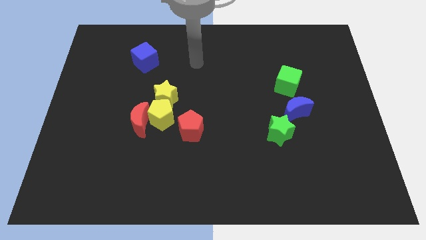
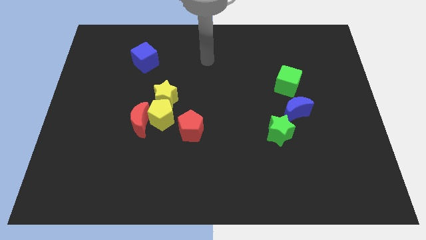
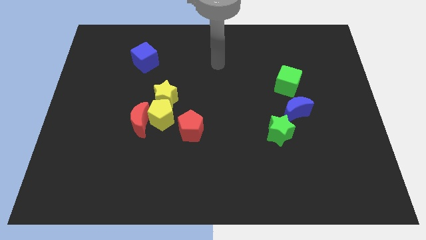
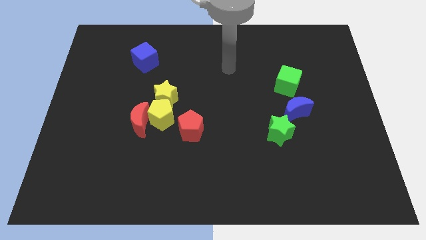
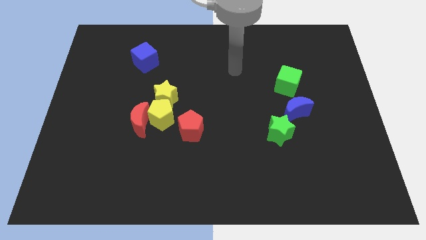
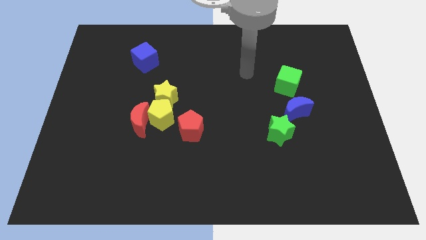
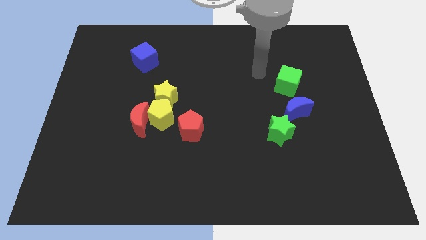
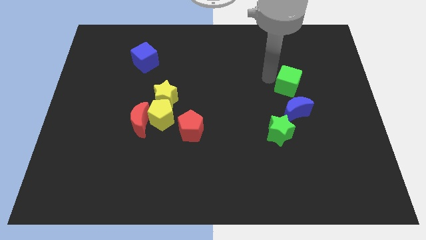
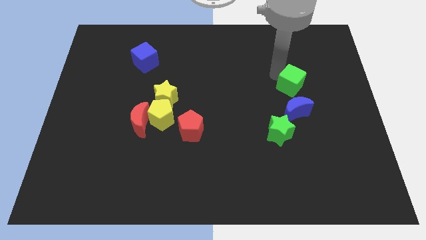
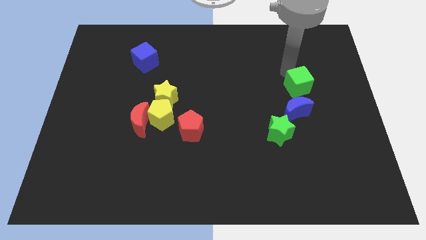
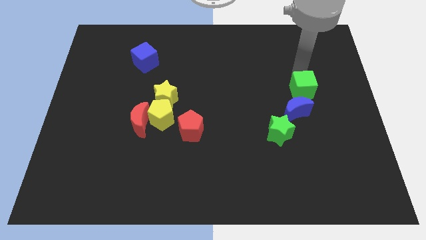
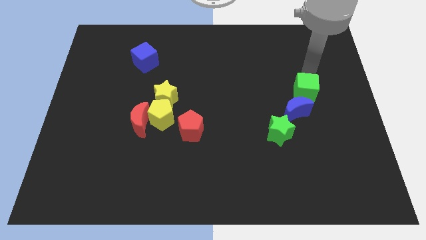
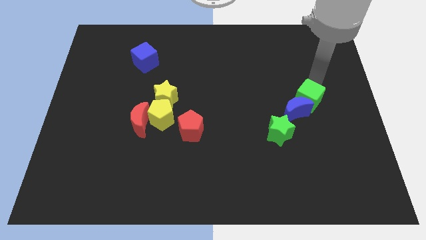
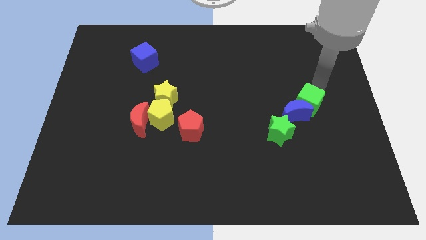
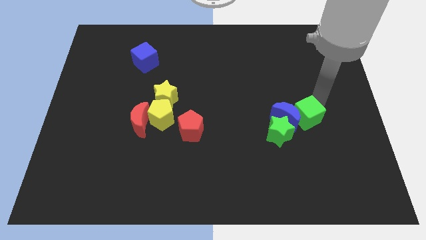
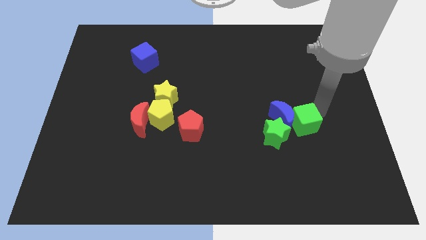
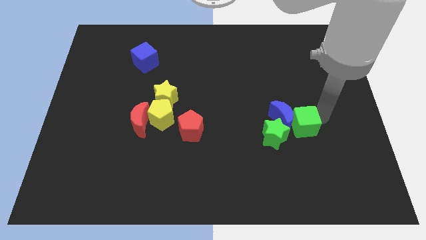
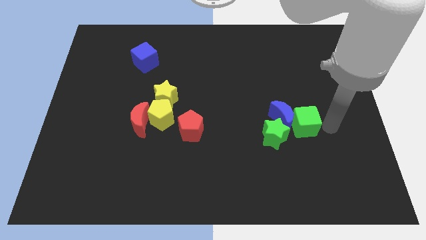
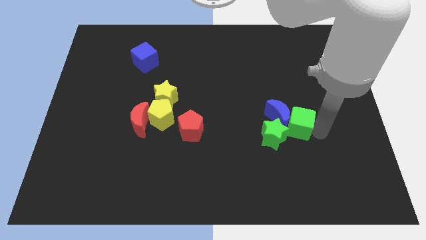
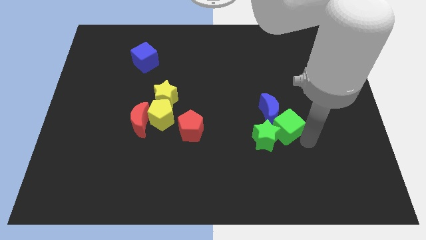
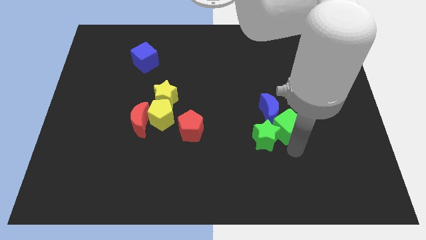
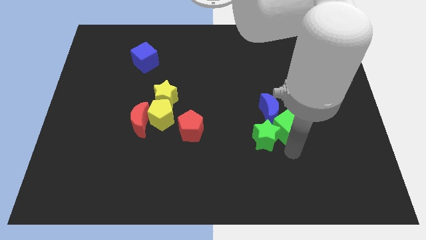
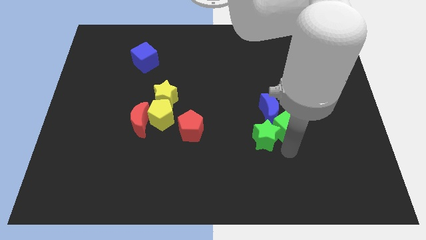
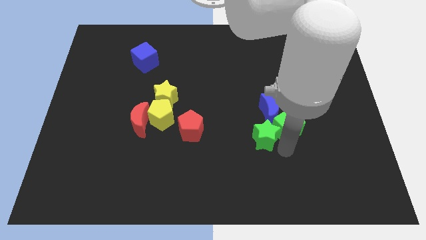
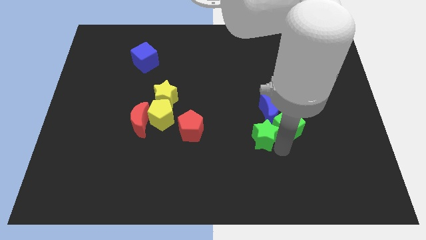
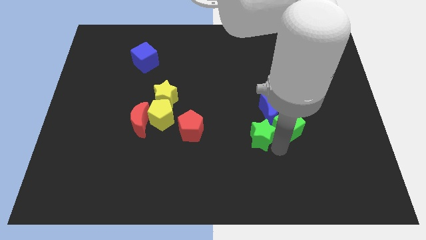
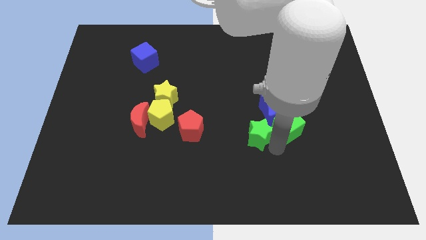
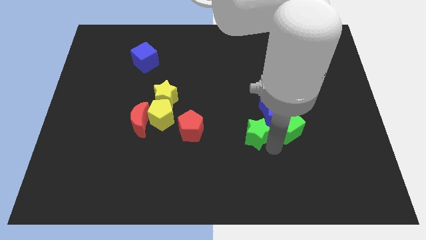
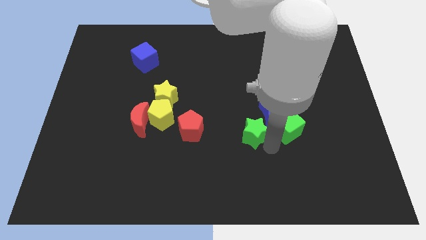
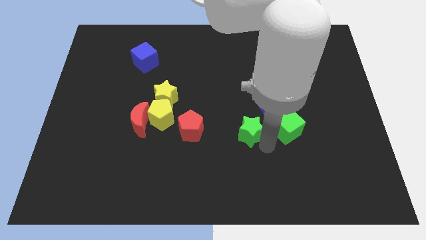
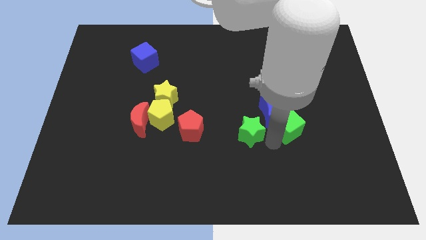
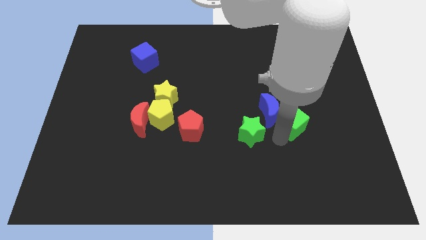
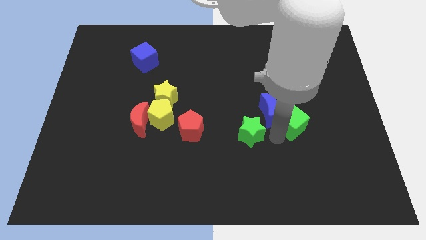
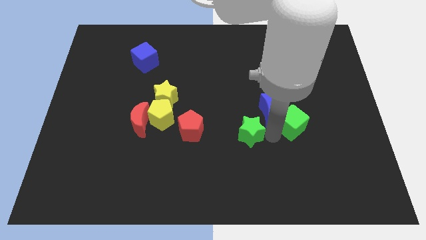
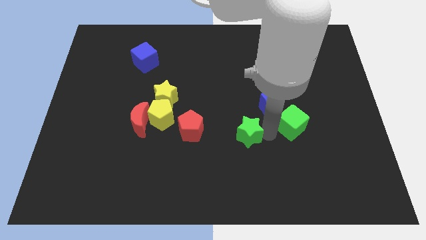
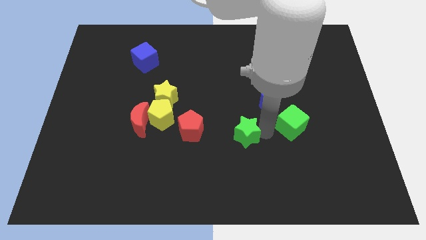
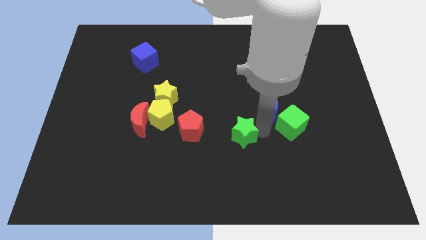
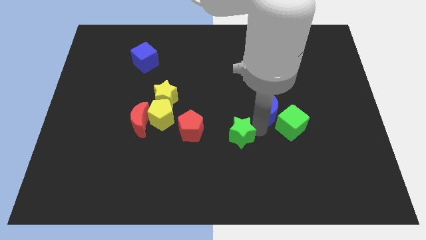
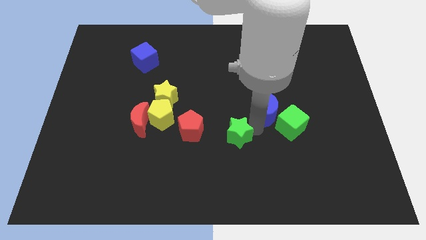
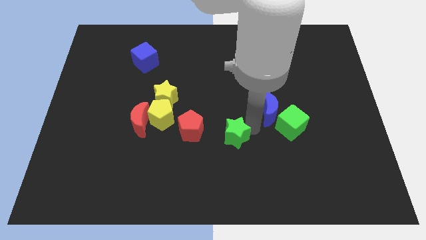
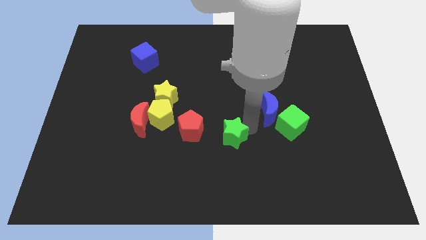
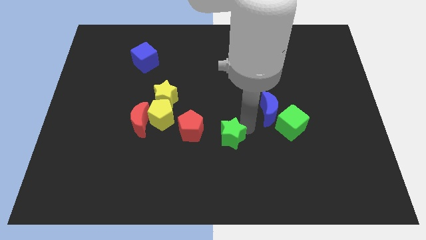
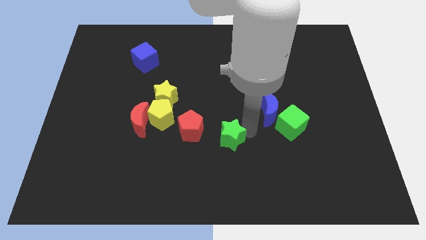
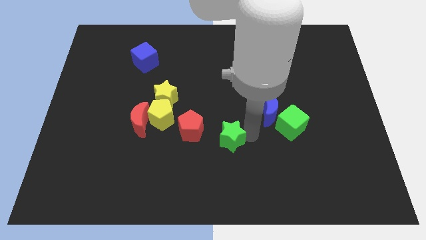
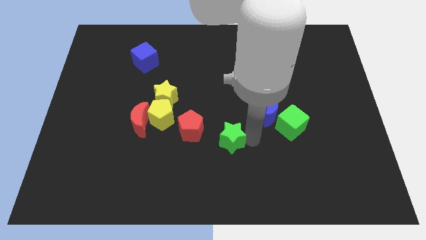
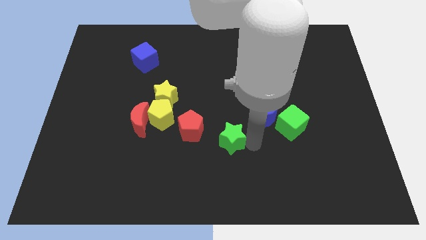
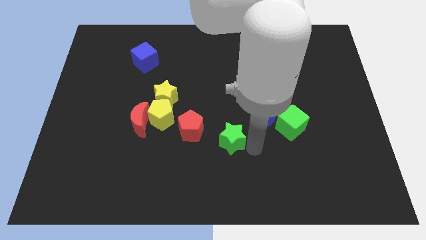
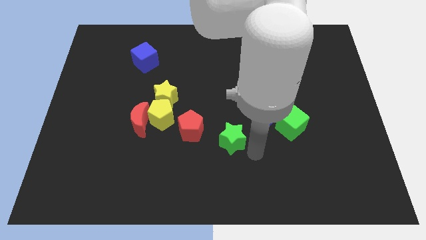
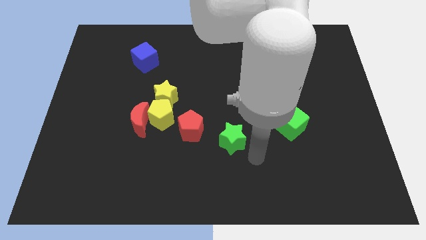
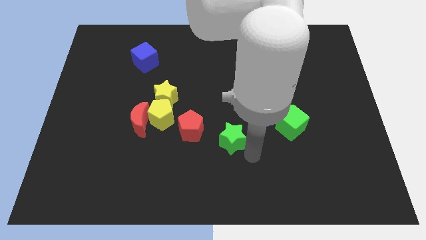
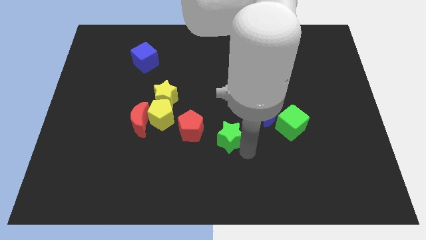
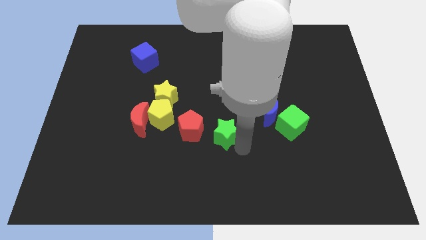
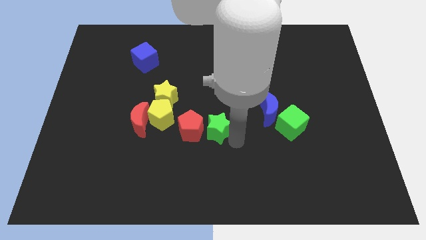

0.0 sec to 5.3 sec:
push the green star next to the red pentagon

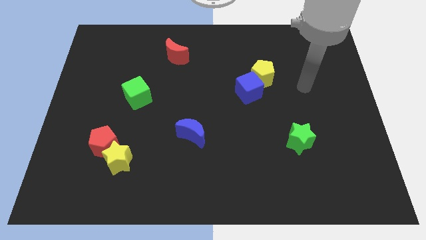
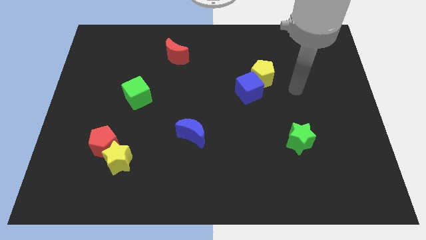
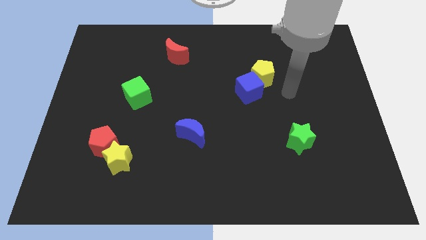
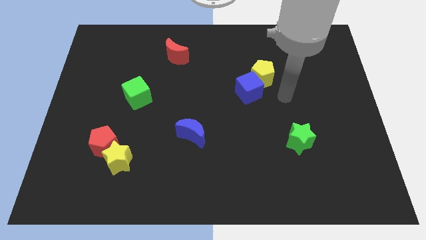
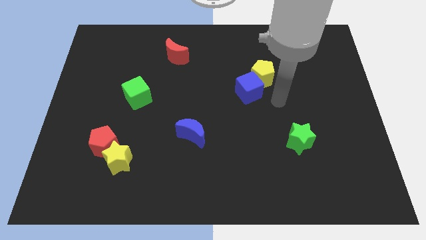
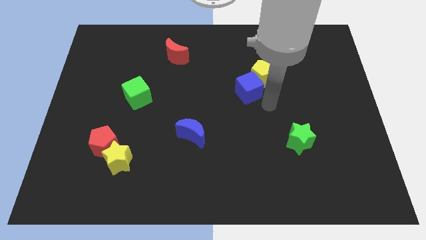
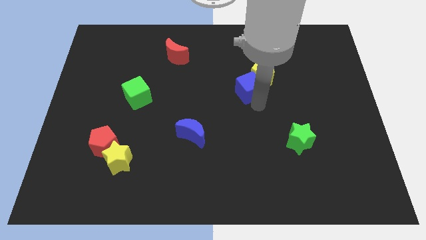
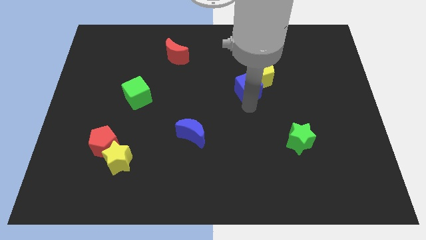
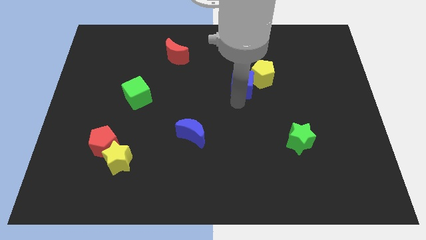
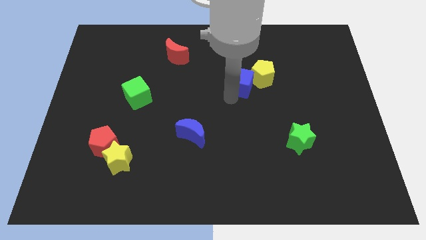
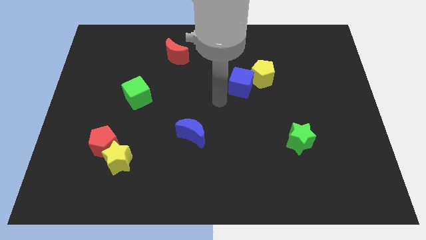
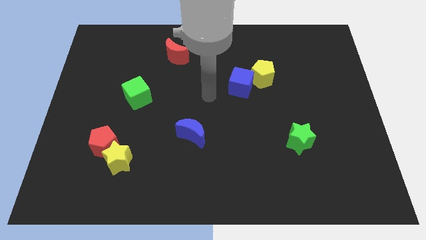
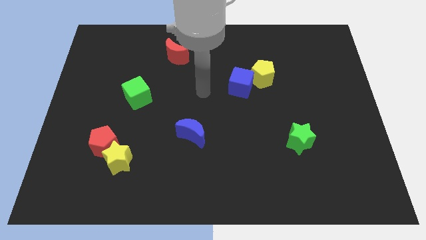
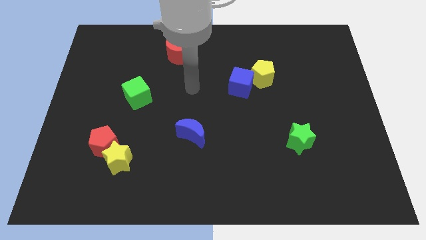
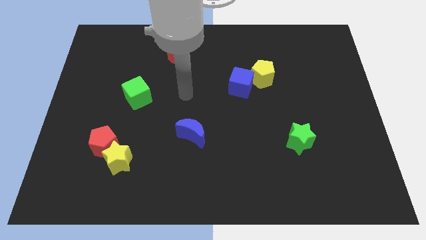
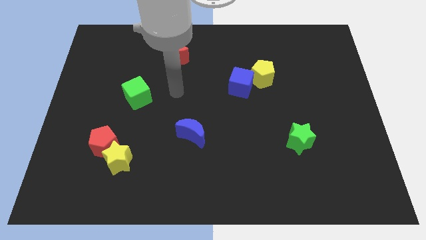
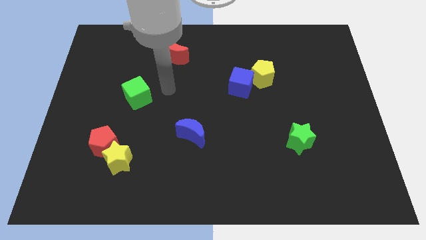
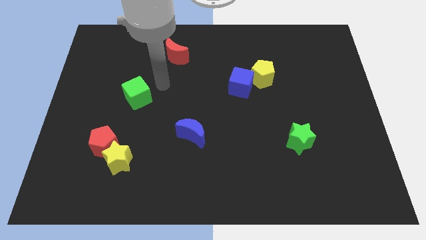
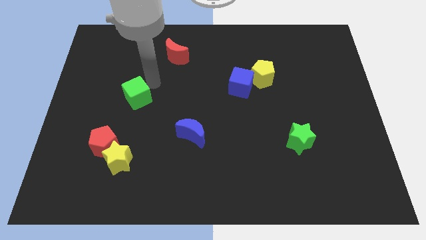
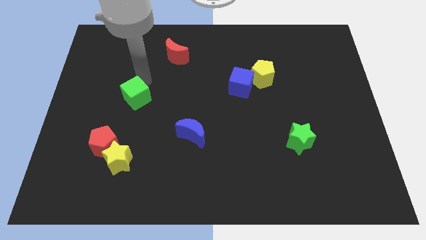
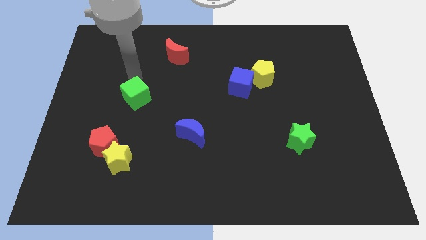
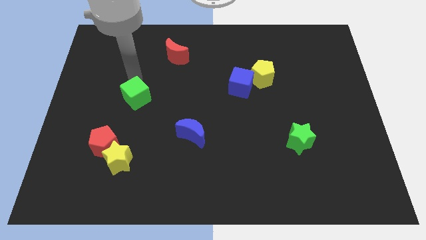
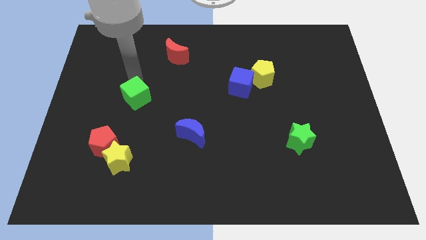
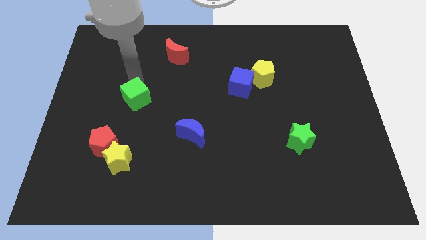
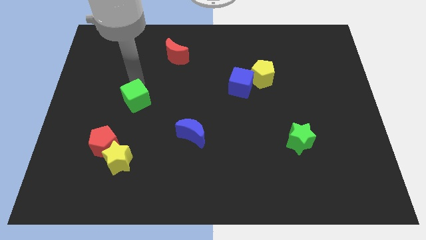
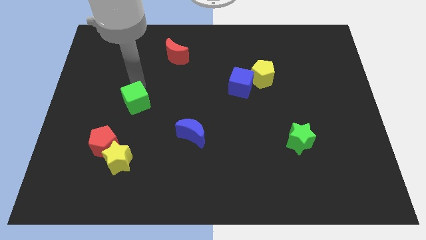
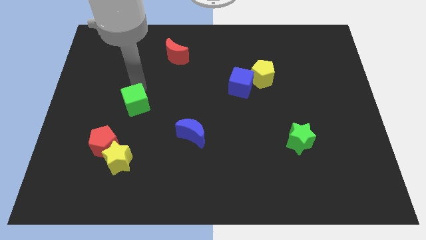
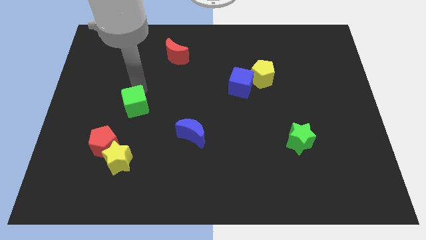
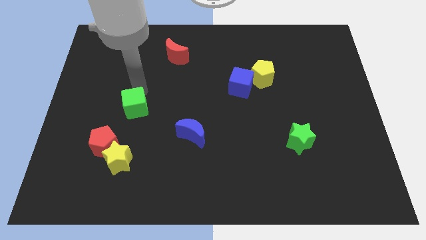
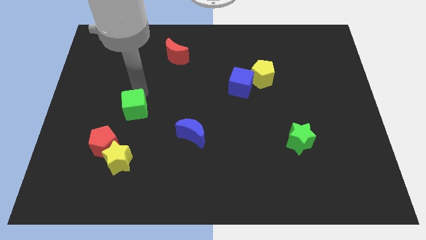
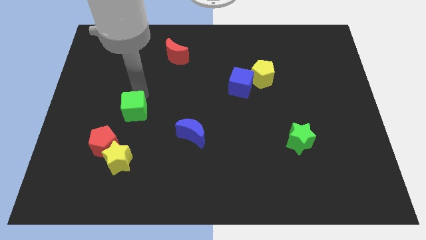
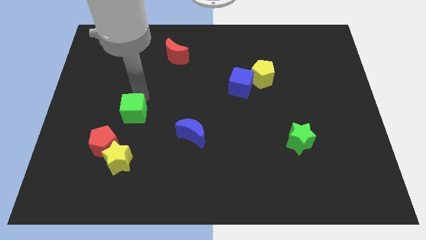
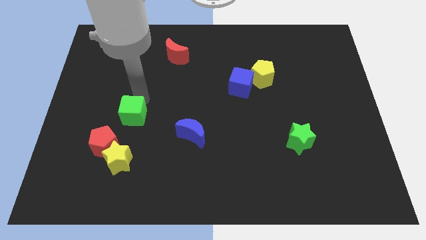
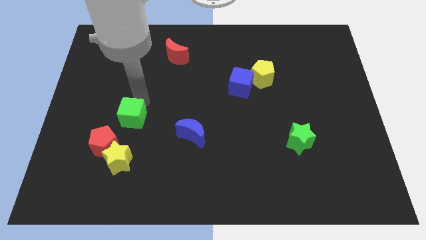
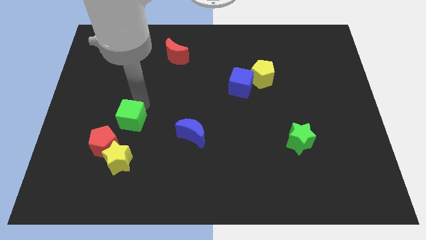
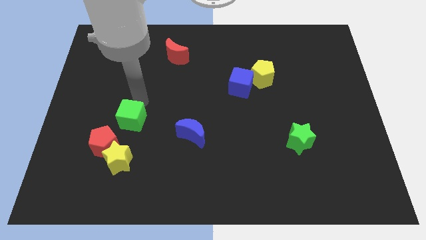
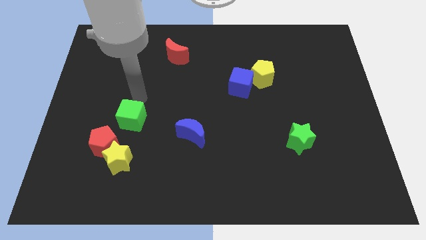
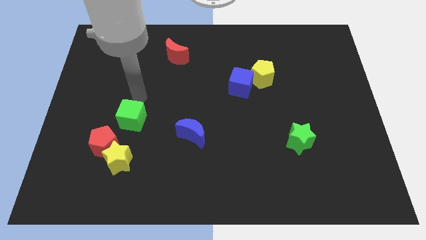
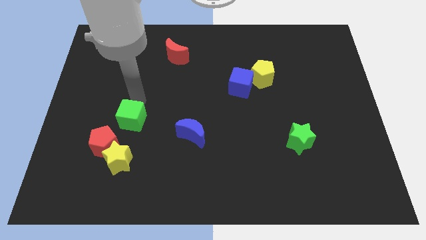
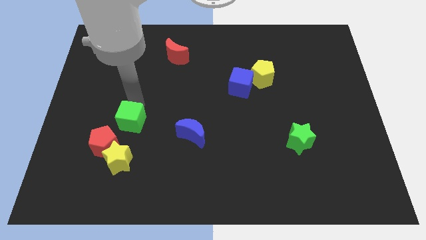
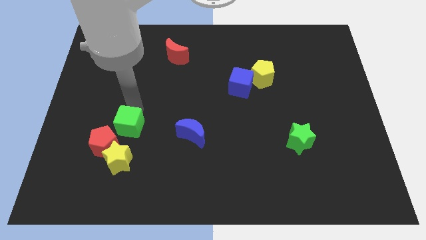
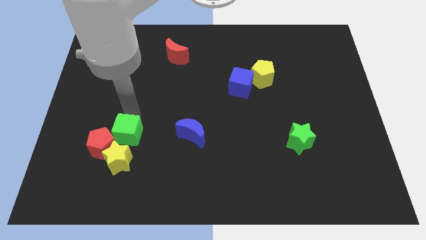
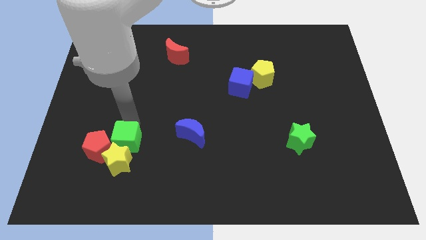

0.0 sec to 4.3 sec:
put the green cube towards the yellow star
